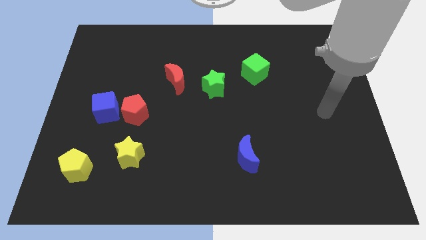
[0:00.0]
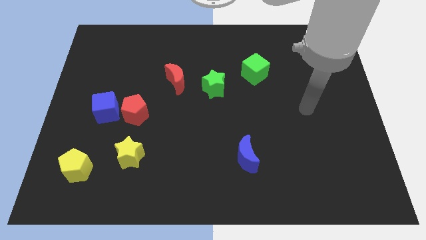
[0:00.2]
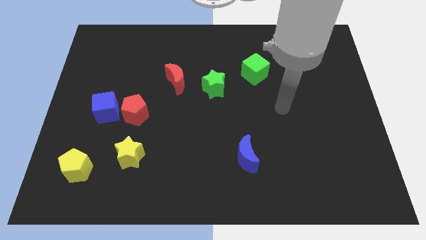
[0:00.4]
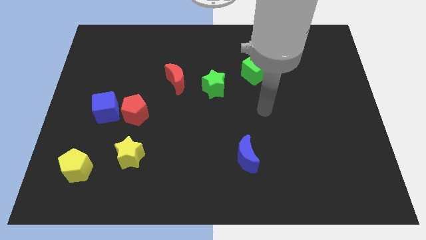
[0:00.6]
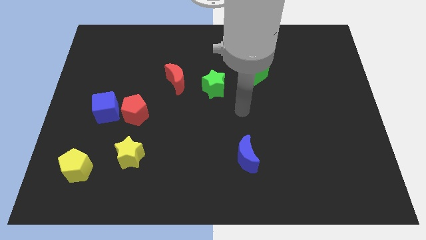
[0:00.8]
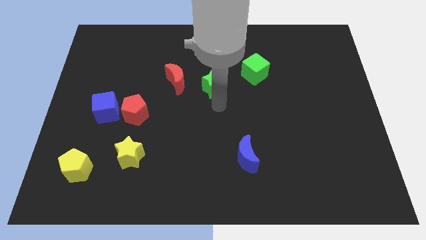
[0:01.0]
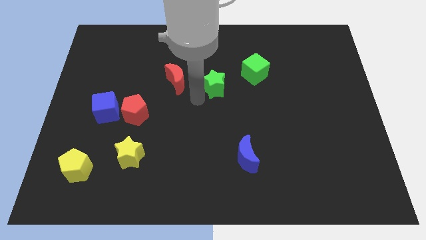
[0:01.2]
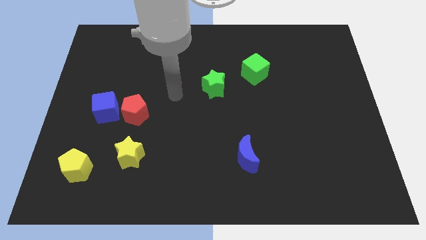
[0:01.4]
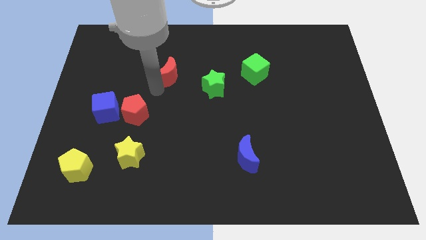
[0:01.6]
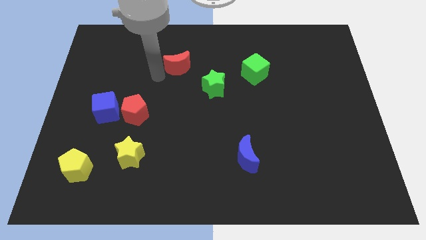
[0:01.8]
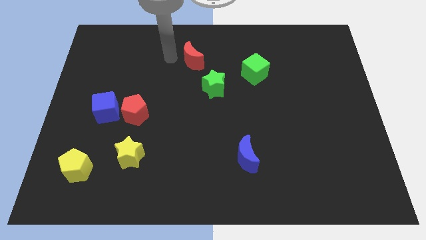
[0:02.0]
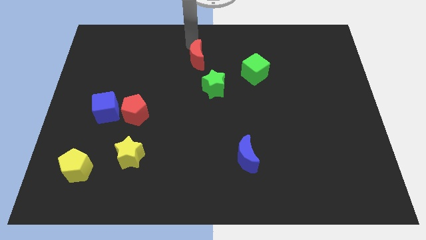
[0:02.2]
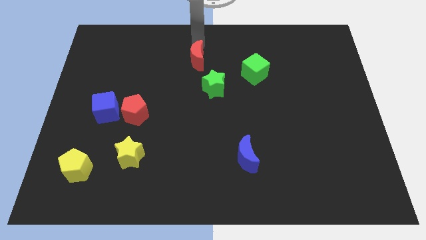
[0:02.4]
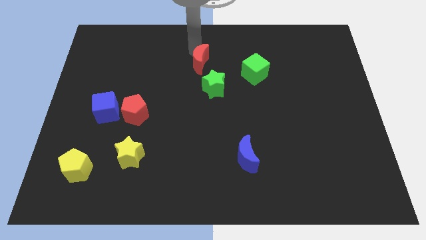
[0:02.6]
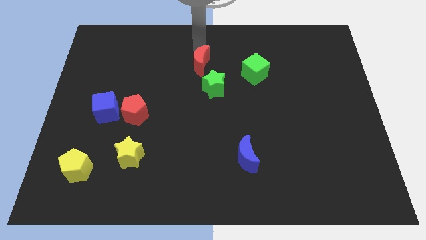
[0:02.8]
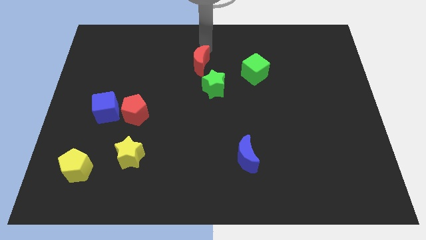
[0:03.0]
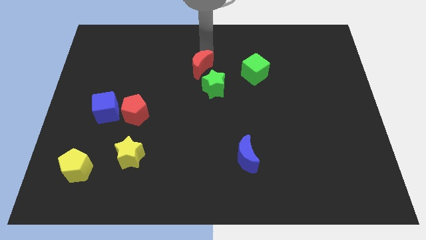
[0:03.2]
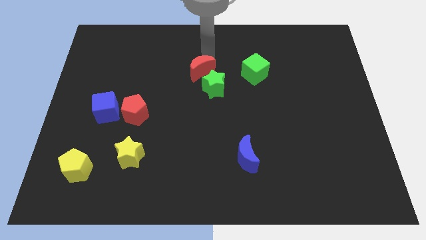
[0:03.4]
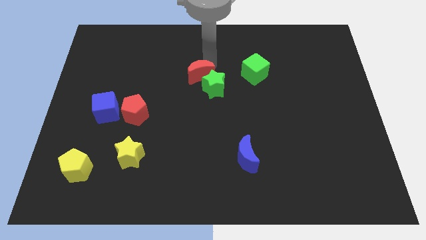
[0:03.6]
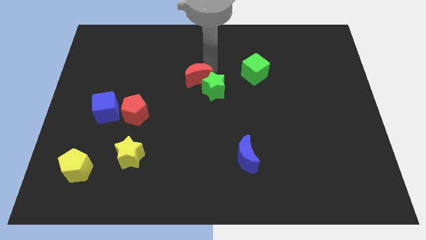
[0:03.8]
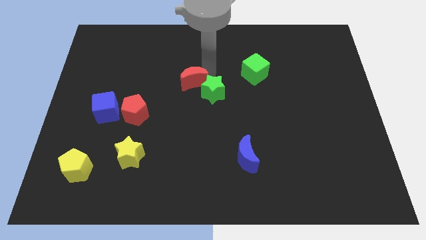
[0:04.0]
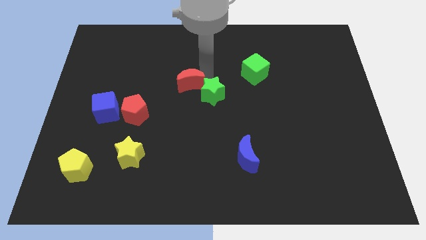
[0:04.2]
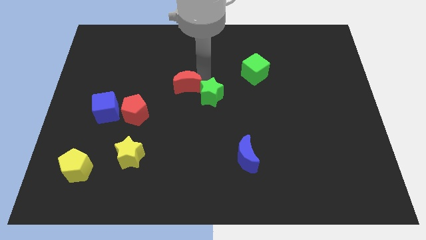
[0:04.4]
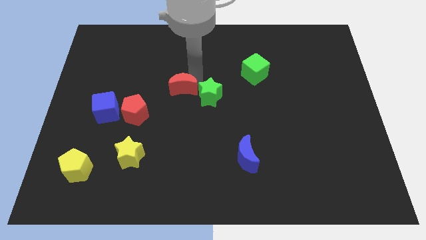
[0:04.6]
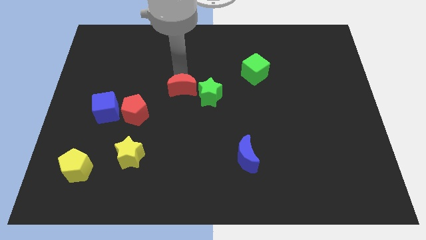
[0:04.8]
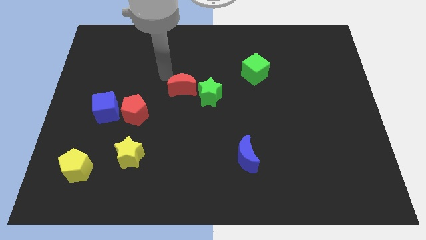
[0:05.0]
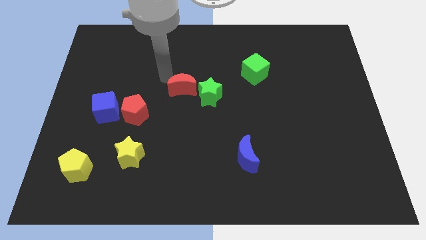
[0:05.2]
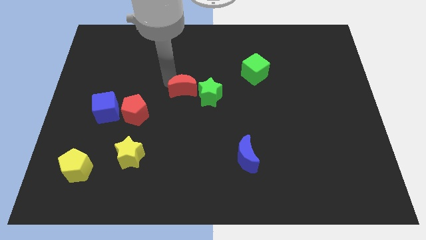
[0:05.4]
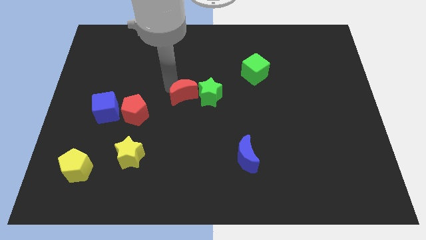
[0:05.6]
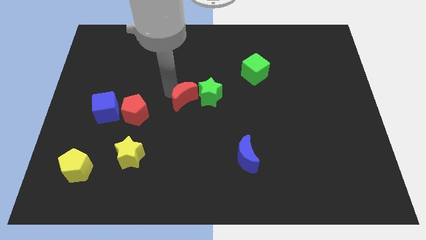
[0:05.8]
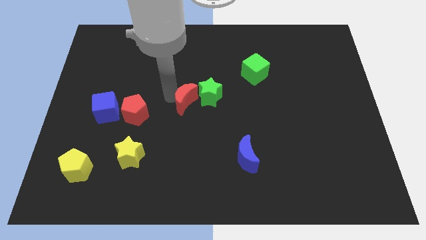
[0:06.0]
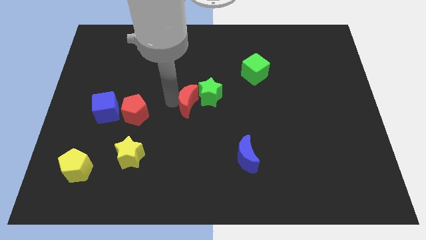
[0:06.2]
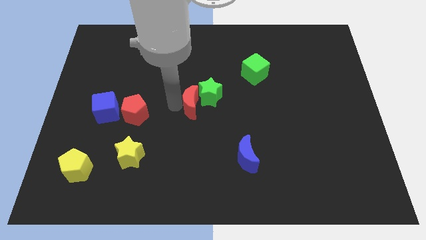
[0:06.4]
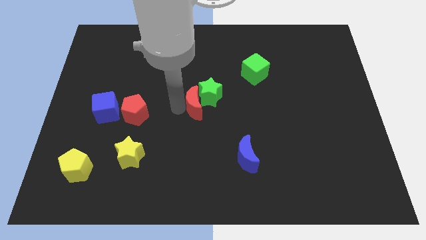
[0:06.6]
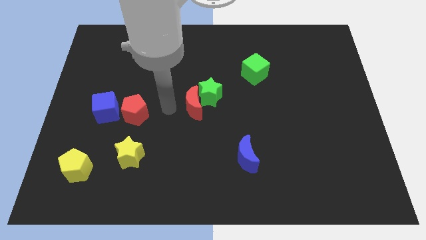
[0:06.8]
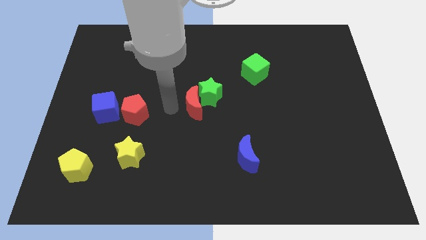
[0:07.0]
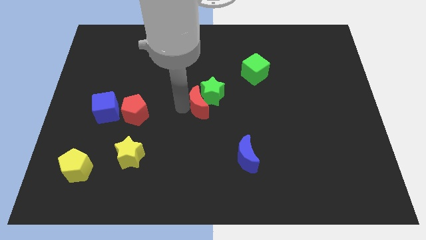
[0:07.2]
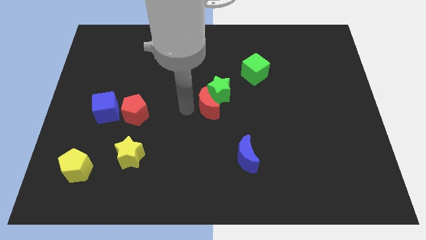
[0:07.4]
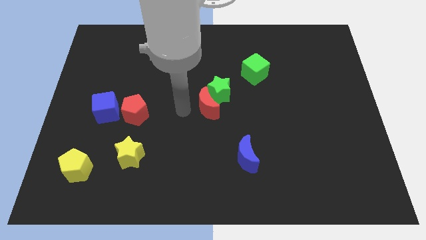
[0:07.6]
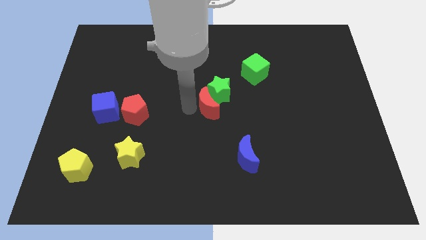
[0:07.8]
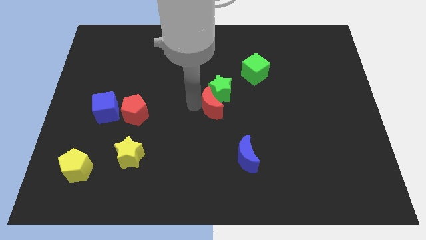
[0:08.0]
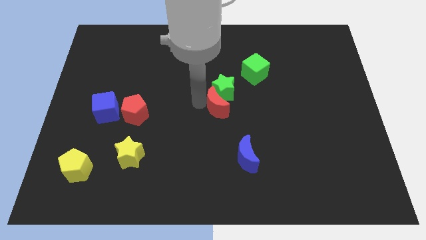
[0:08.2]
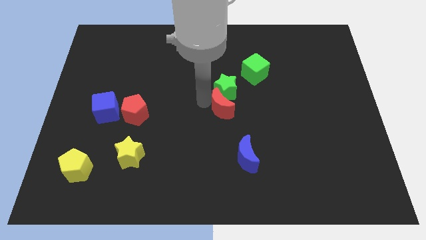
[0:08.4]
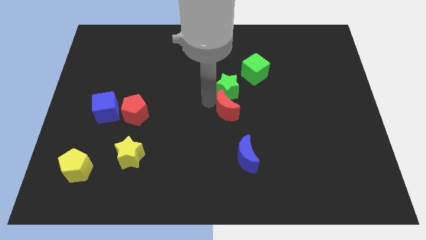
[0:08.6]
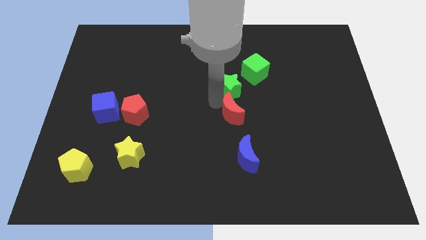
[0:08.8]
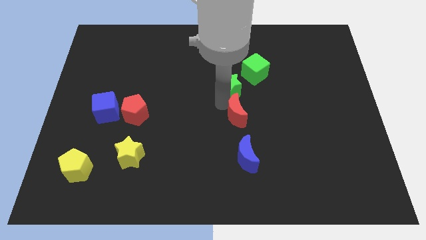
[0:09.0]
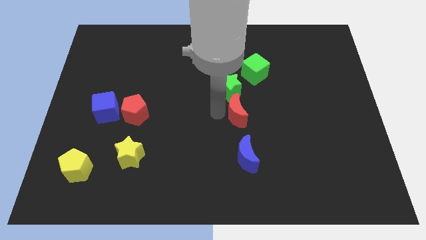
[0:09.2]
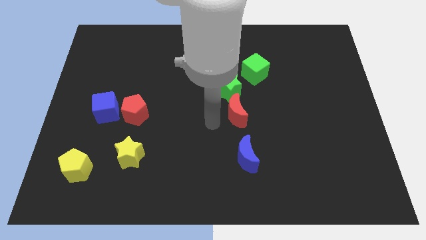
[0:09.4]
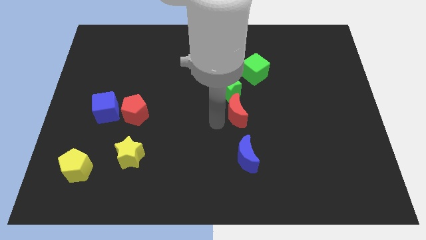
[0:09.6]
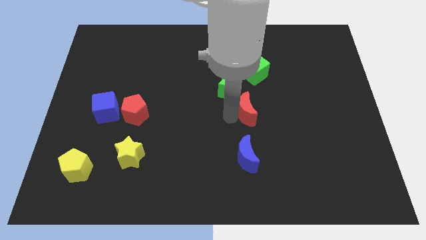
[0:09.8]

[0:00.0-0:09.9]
move the red moon to the bottom side of the green cube

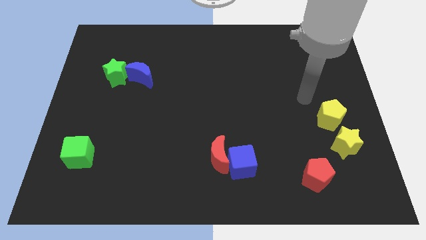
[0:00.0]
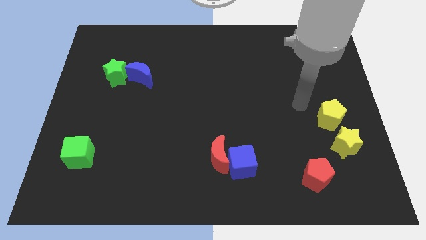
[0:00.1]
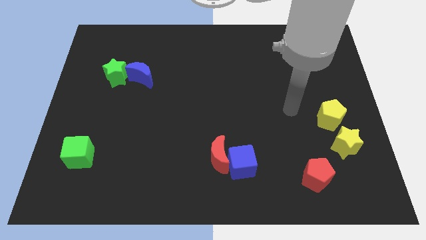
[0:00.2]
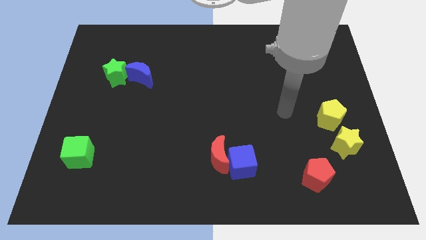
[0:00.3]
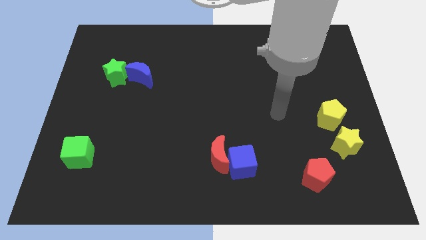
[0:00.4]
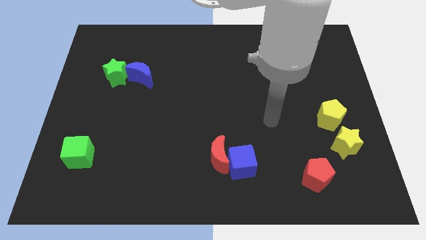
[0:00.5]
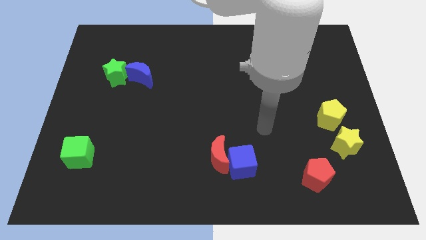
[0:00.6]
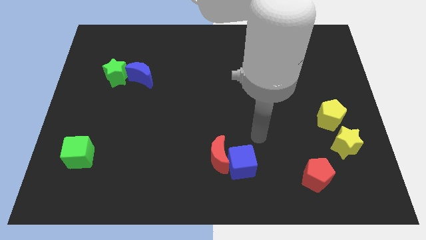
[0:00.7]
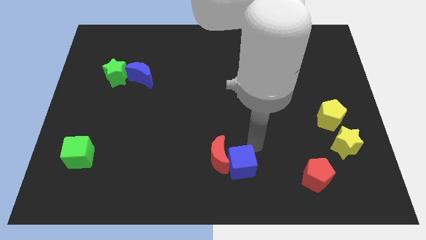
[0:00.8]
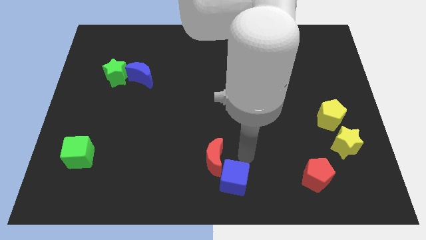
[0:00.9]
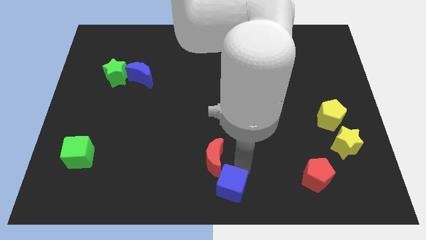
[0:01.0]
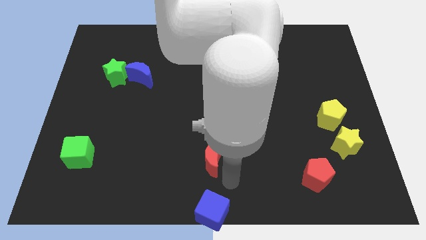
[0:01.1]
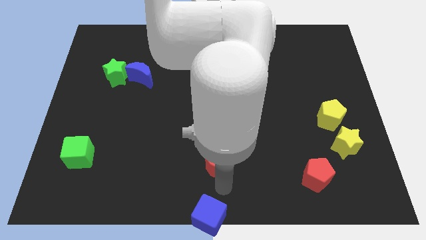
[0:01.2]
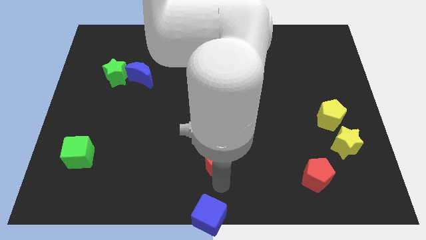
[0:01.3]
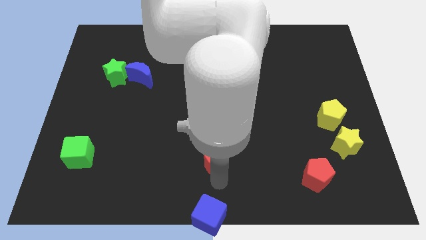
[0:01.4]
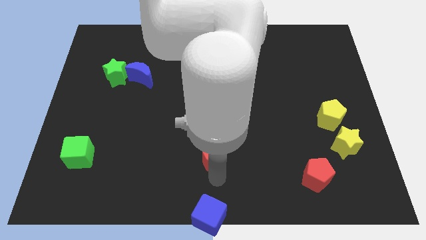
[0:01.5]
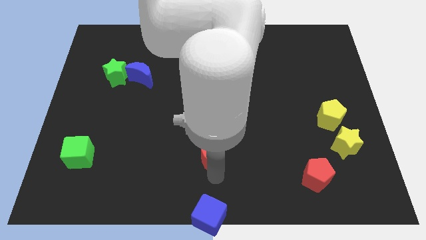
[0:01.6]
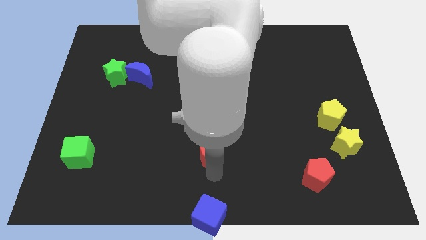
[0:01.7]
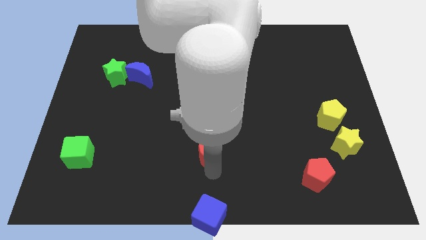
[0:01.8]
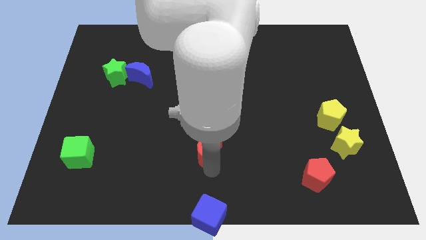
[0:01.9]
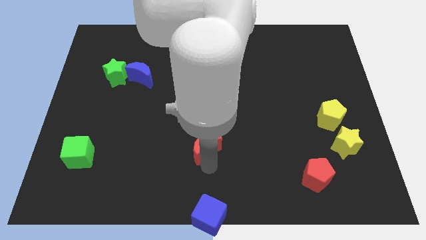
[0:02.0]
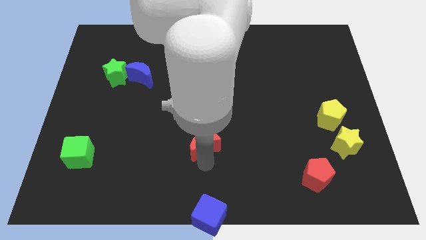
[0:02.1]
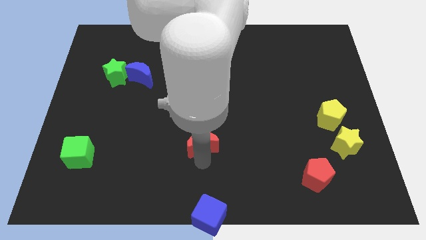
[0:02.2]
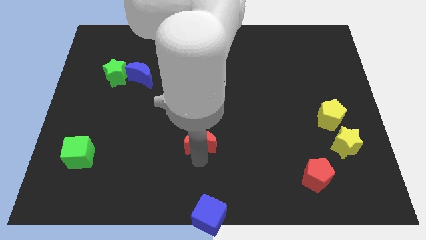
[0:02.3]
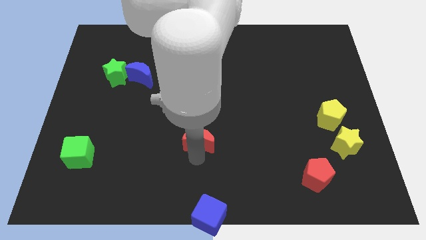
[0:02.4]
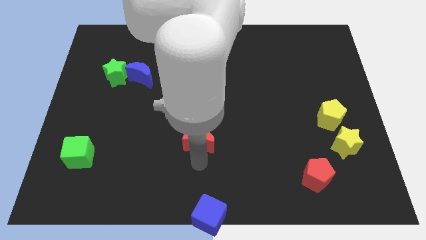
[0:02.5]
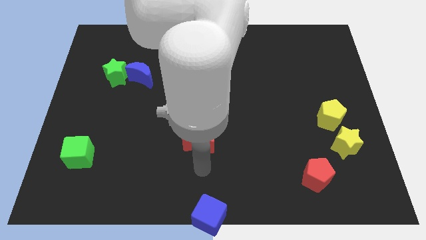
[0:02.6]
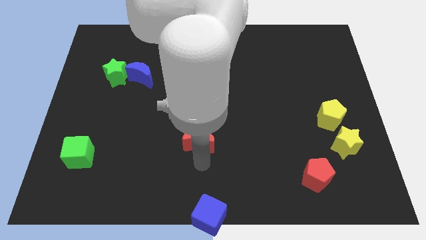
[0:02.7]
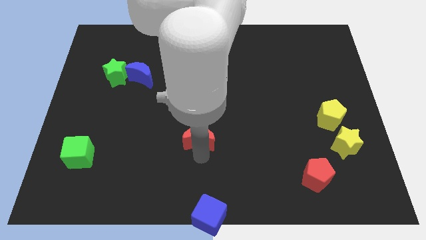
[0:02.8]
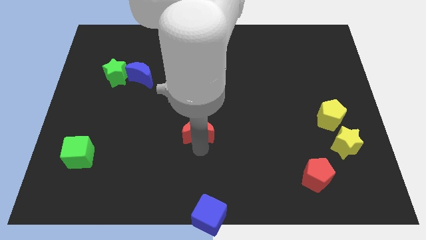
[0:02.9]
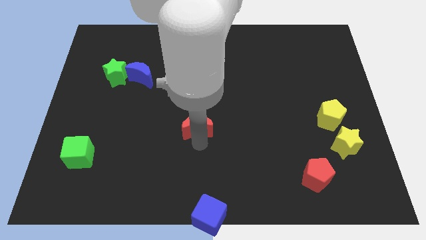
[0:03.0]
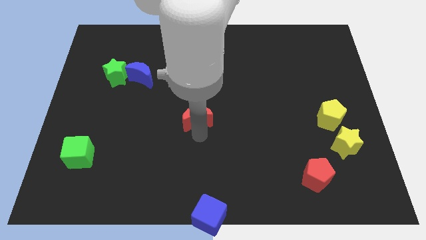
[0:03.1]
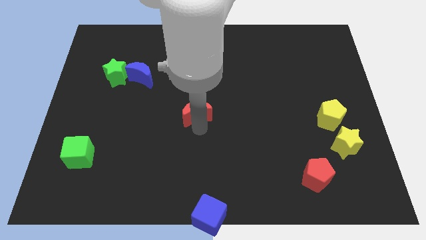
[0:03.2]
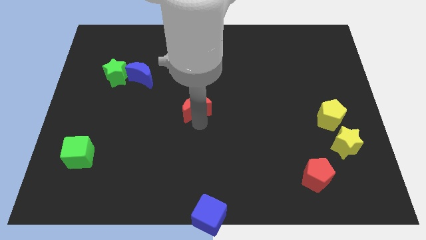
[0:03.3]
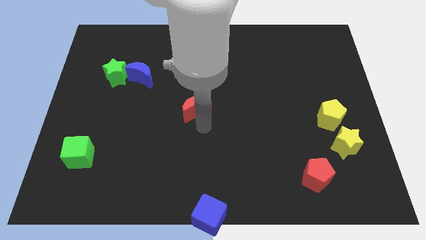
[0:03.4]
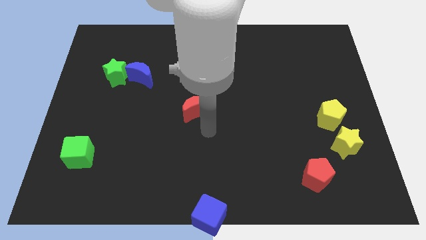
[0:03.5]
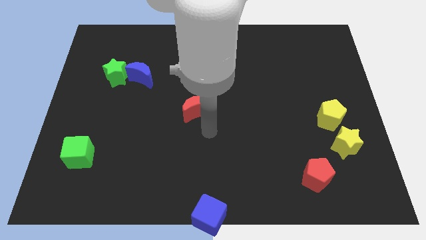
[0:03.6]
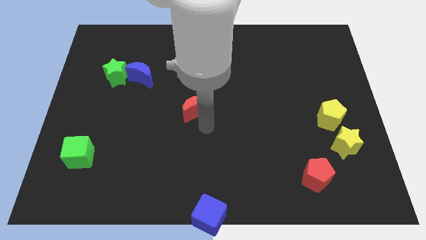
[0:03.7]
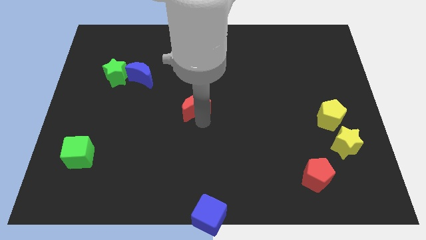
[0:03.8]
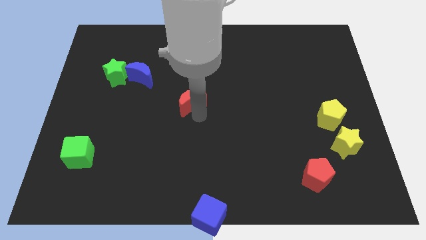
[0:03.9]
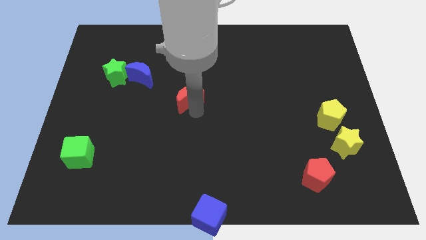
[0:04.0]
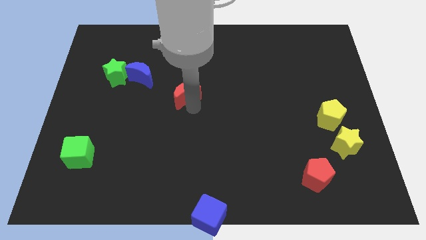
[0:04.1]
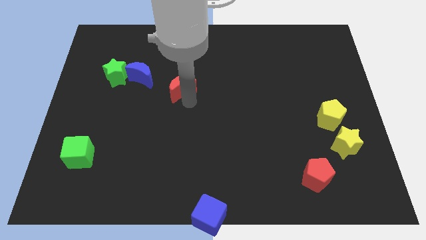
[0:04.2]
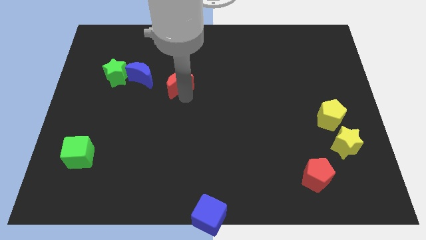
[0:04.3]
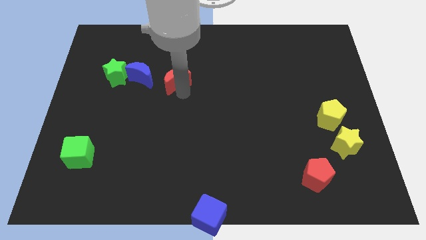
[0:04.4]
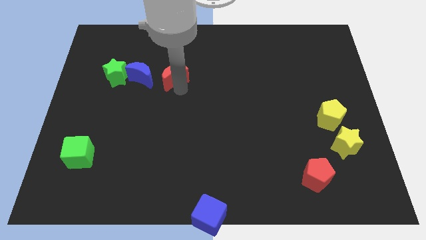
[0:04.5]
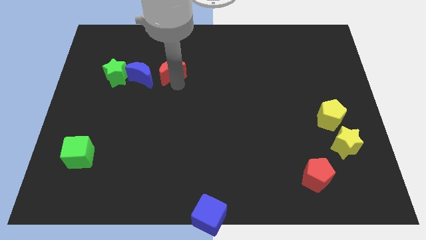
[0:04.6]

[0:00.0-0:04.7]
put the red moon to the top right of the blue moon
